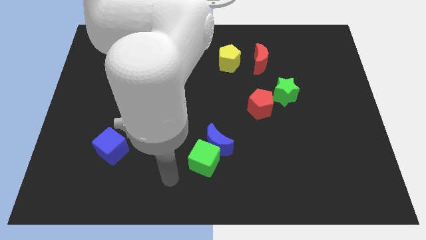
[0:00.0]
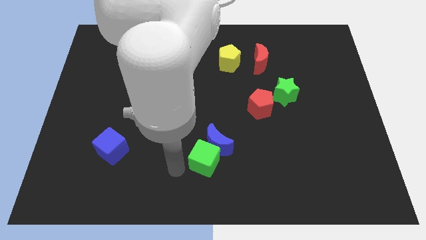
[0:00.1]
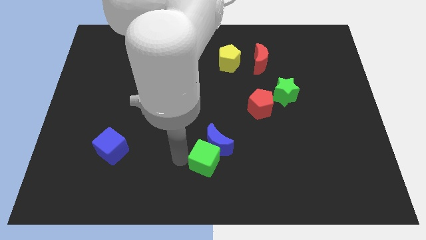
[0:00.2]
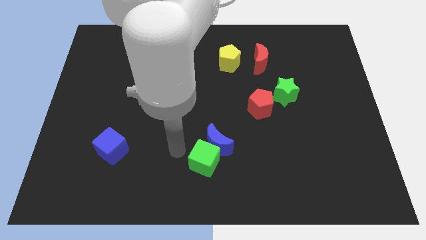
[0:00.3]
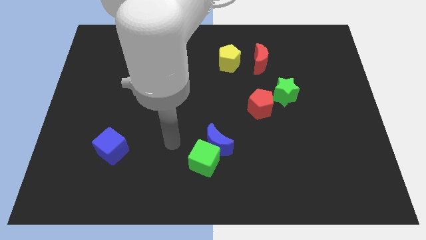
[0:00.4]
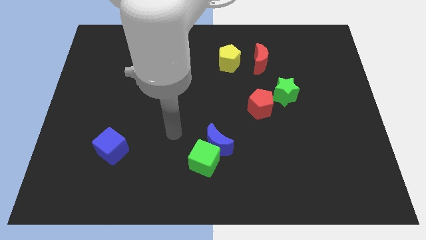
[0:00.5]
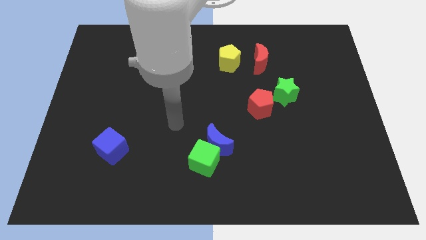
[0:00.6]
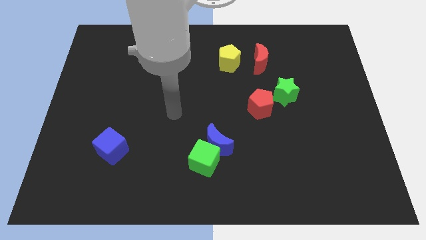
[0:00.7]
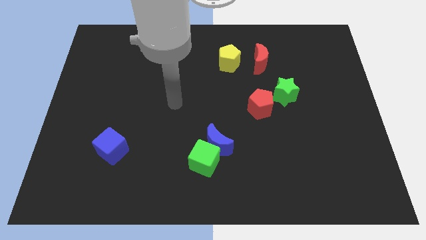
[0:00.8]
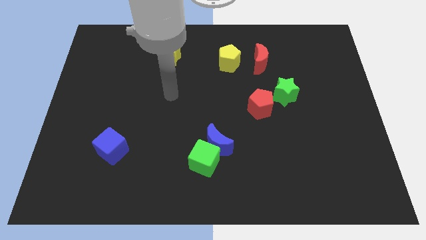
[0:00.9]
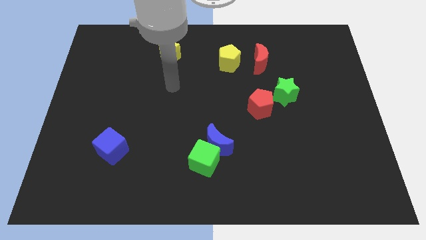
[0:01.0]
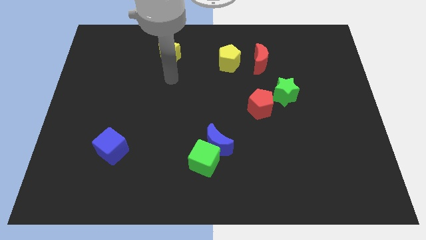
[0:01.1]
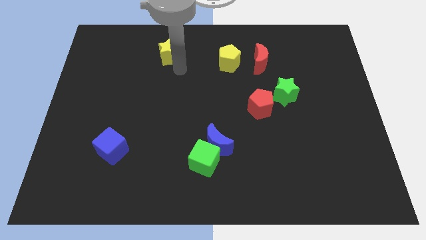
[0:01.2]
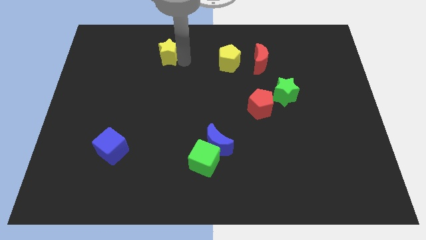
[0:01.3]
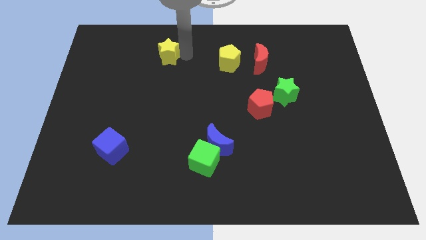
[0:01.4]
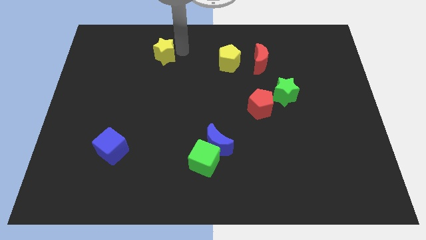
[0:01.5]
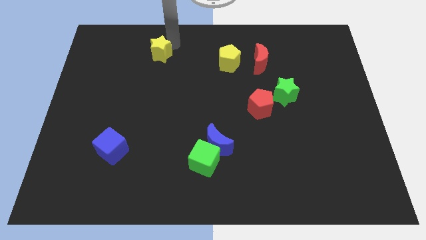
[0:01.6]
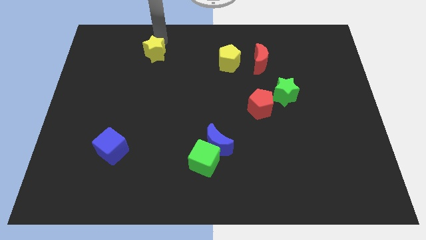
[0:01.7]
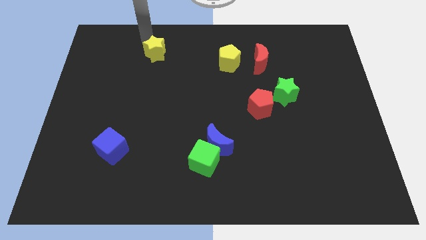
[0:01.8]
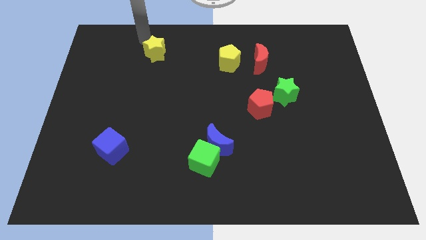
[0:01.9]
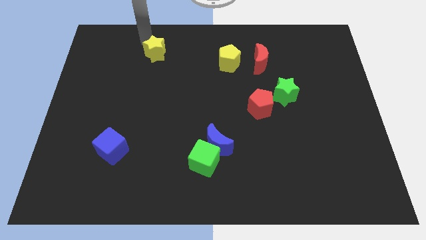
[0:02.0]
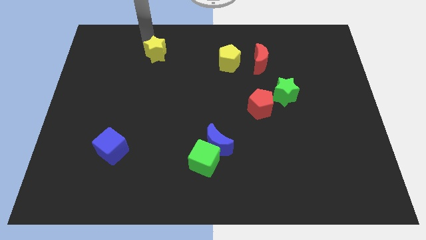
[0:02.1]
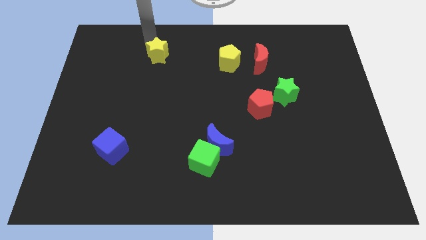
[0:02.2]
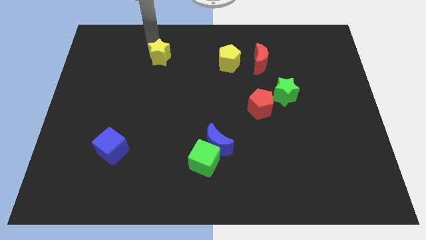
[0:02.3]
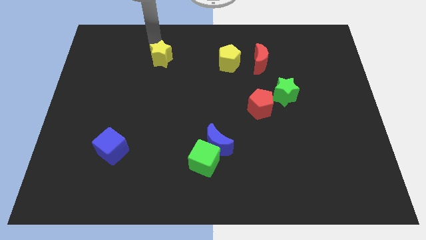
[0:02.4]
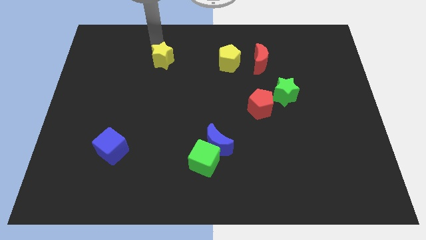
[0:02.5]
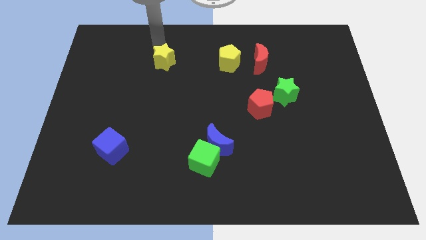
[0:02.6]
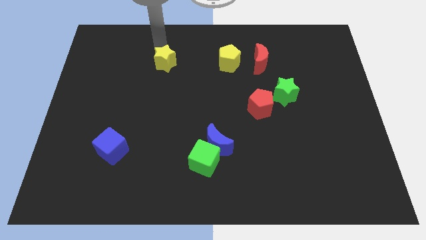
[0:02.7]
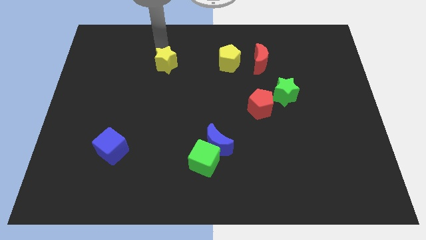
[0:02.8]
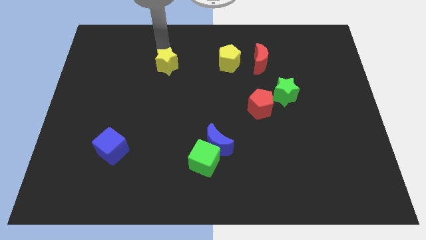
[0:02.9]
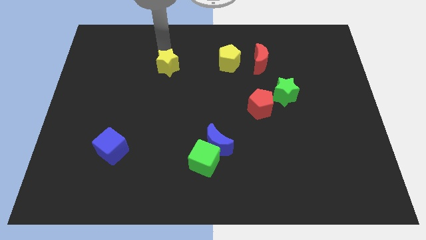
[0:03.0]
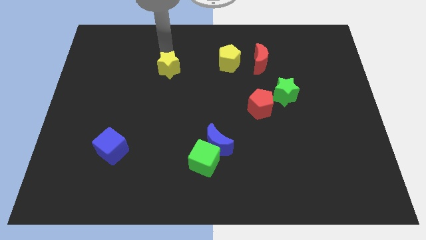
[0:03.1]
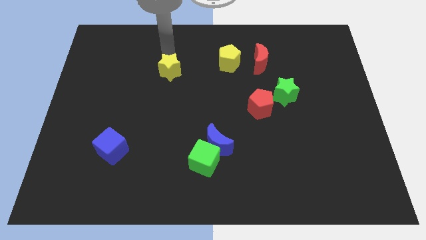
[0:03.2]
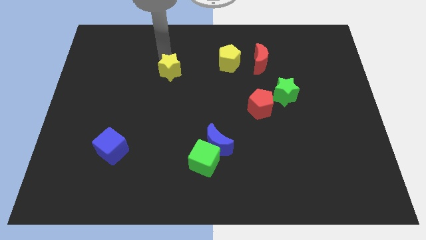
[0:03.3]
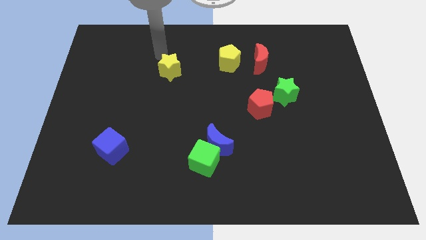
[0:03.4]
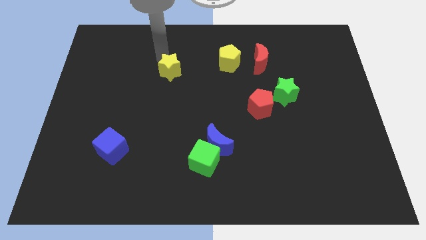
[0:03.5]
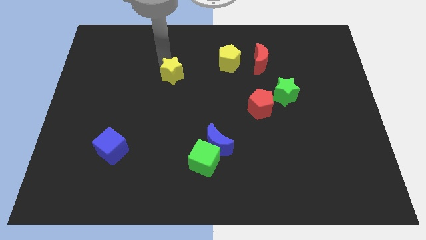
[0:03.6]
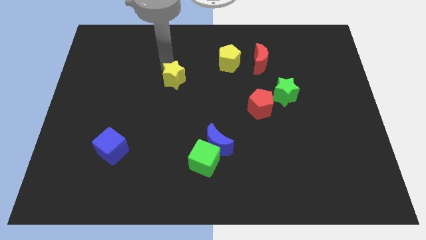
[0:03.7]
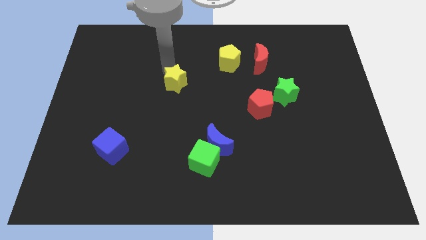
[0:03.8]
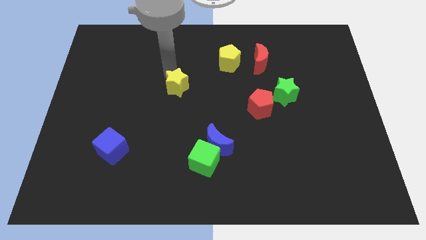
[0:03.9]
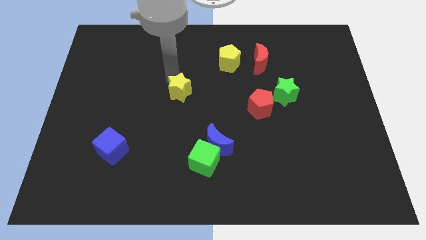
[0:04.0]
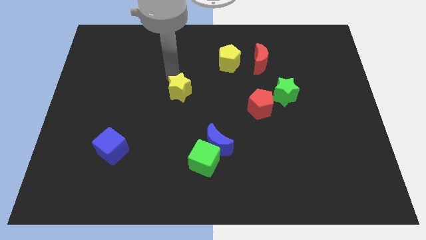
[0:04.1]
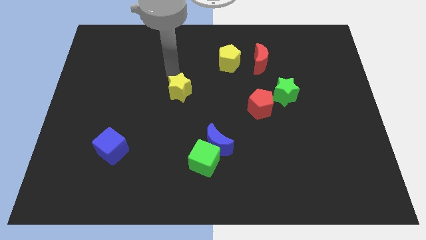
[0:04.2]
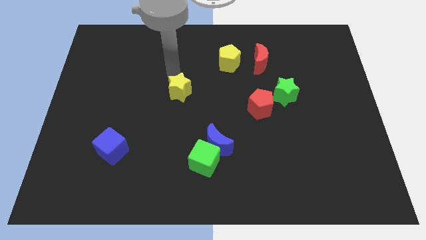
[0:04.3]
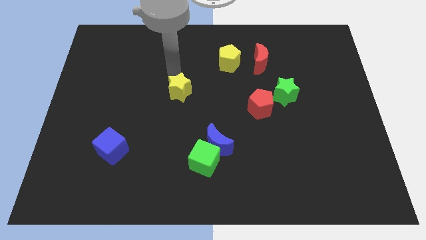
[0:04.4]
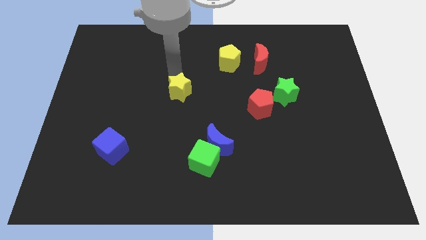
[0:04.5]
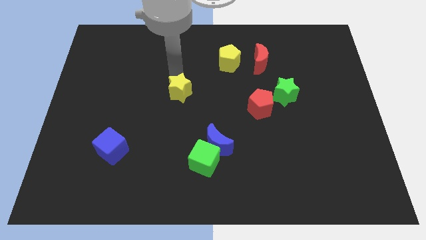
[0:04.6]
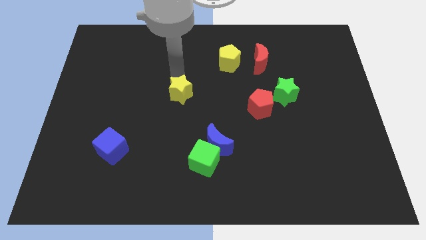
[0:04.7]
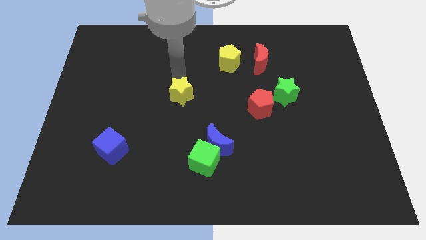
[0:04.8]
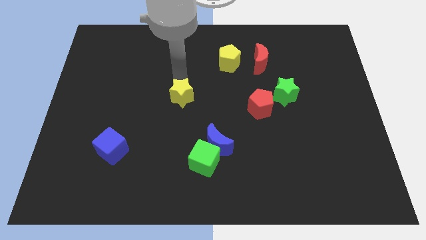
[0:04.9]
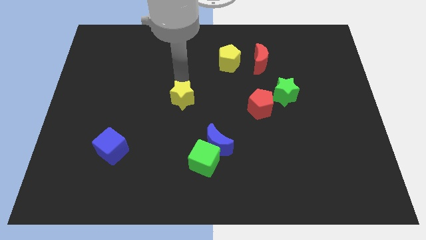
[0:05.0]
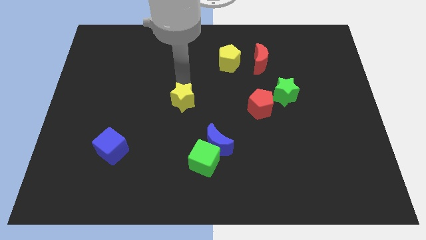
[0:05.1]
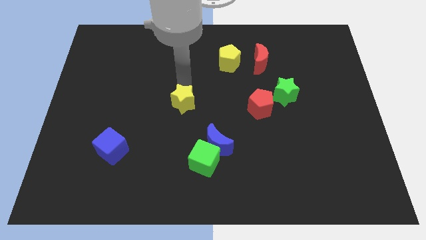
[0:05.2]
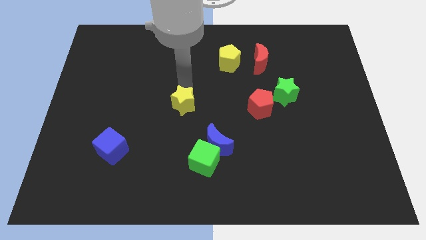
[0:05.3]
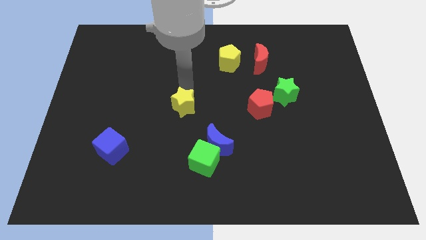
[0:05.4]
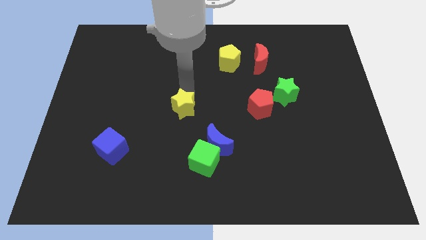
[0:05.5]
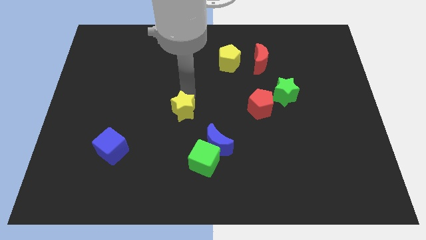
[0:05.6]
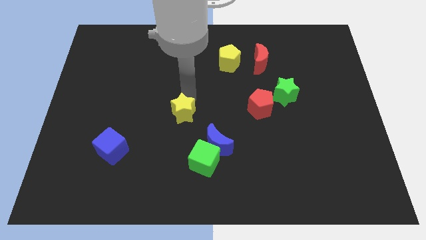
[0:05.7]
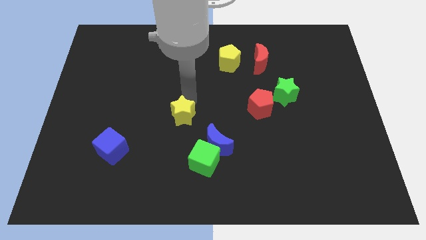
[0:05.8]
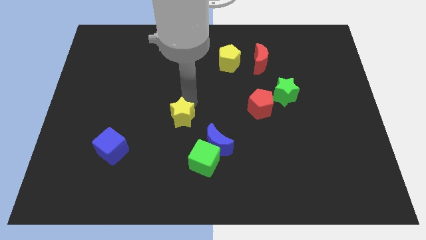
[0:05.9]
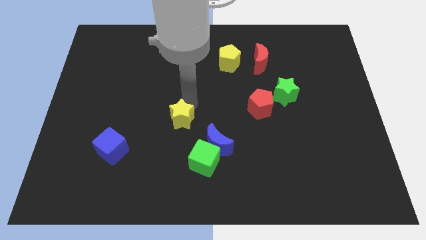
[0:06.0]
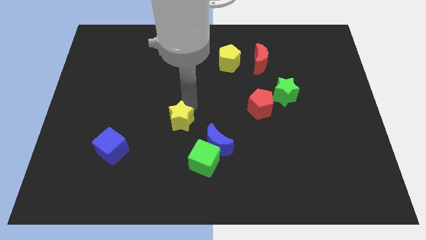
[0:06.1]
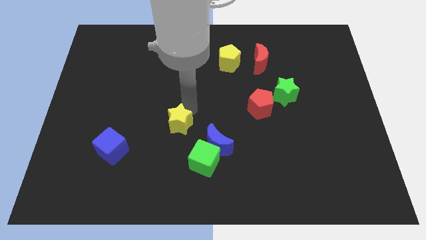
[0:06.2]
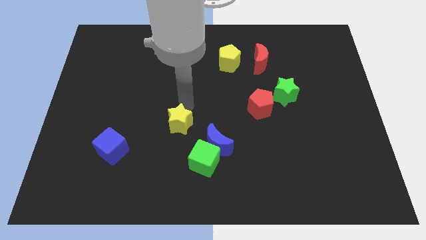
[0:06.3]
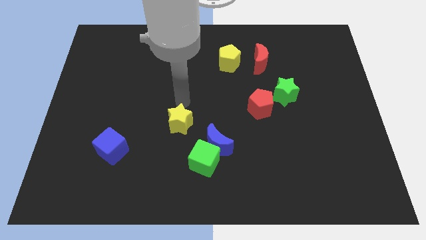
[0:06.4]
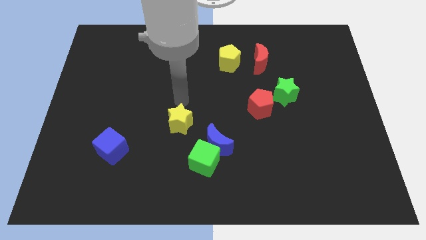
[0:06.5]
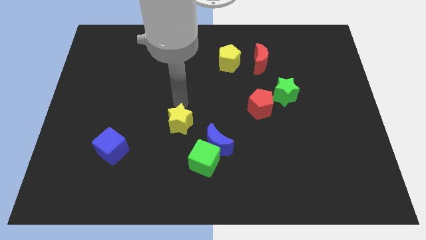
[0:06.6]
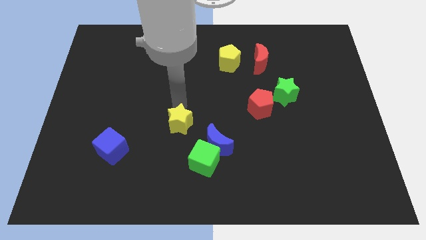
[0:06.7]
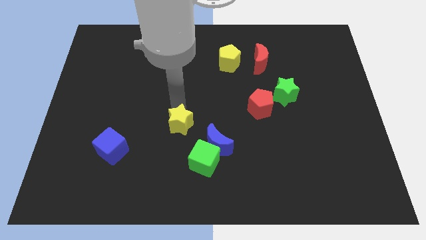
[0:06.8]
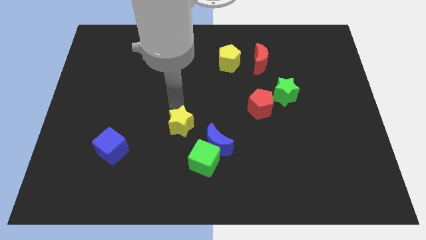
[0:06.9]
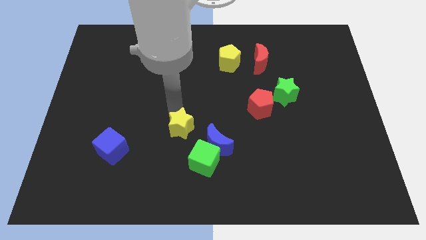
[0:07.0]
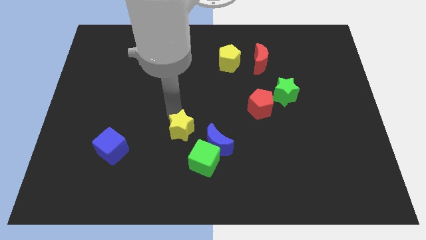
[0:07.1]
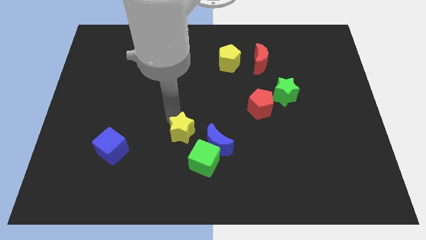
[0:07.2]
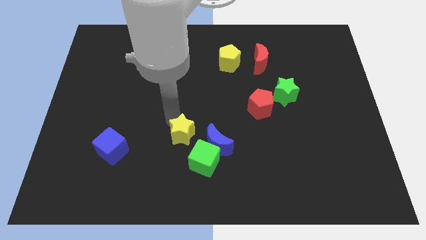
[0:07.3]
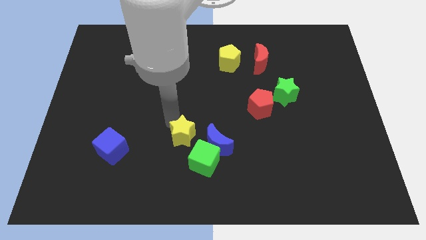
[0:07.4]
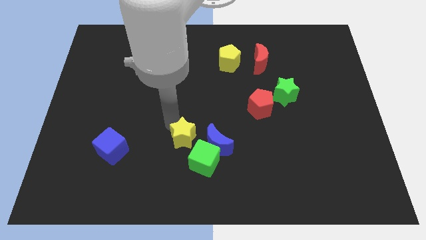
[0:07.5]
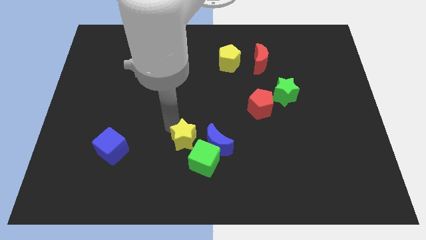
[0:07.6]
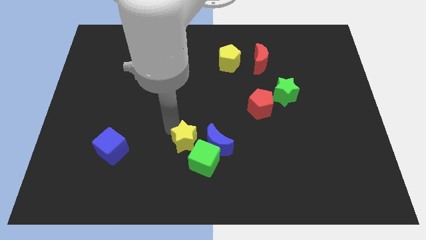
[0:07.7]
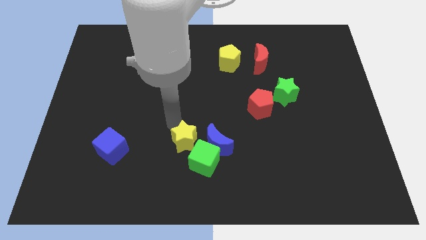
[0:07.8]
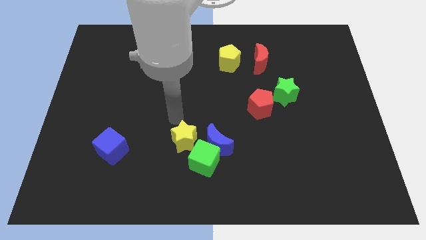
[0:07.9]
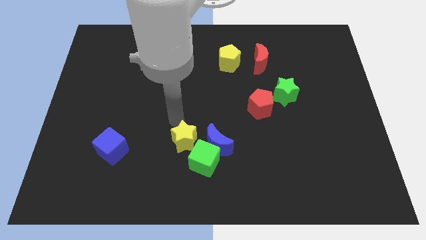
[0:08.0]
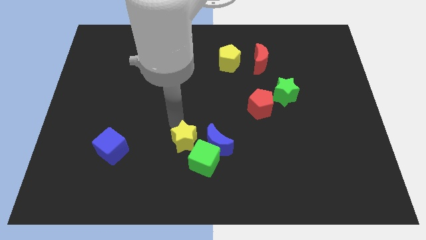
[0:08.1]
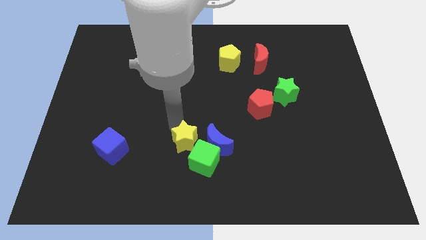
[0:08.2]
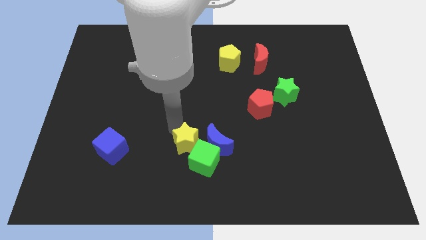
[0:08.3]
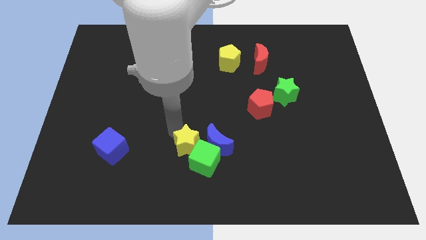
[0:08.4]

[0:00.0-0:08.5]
put the yellow star to the bottom left side of the blue moon
